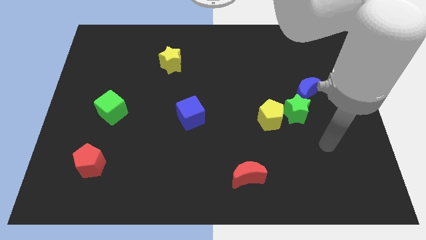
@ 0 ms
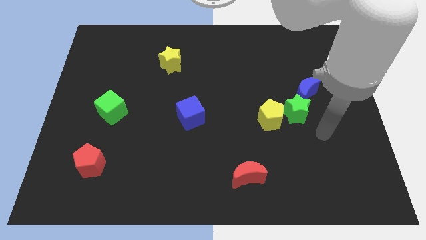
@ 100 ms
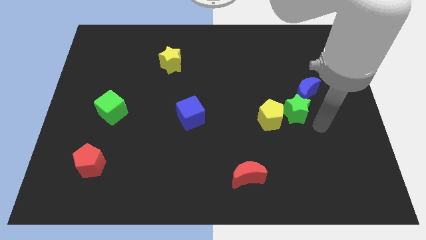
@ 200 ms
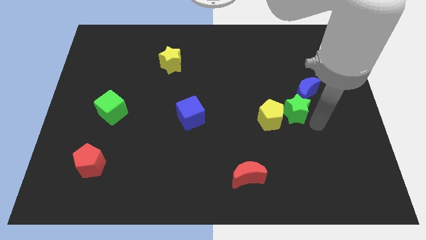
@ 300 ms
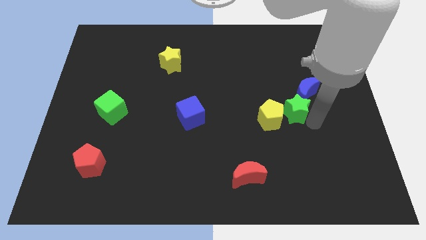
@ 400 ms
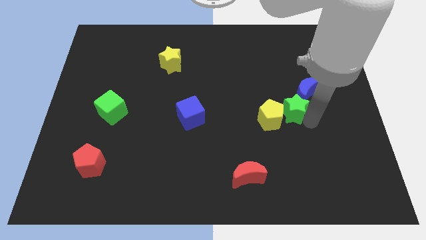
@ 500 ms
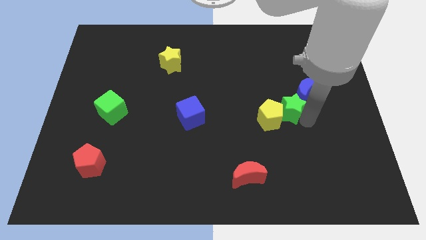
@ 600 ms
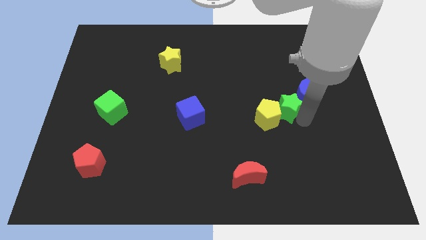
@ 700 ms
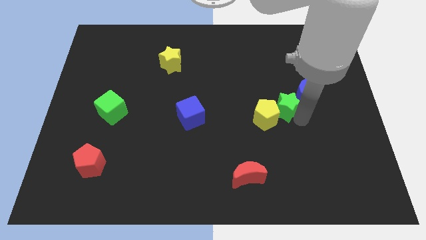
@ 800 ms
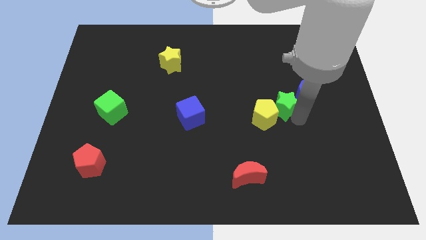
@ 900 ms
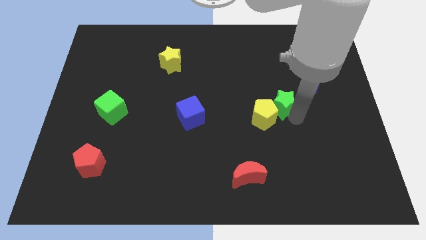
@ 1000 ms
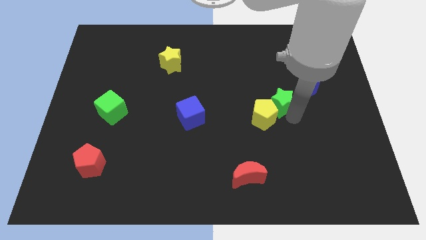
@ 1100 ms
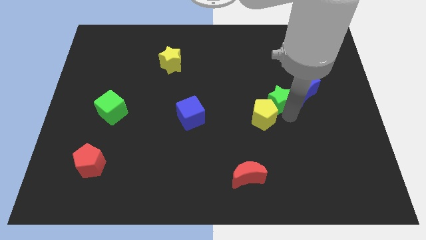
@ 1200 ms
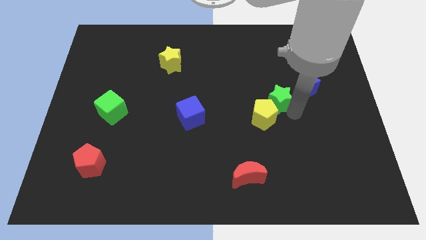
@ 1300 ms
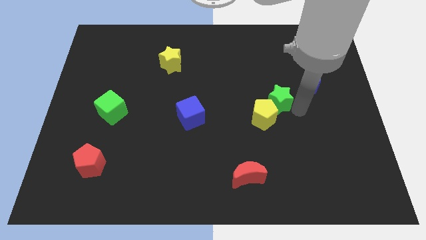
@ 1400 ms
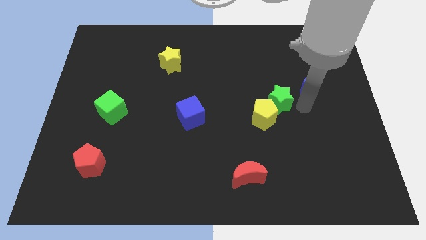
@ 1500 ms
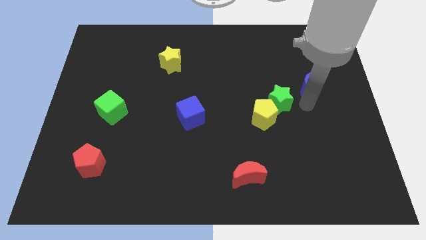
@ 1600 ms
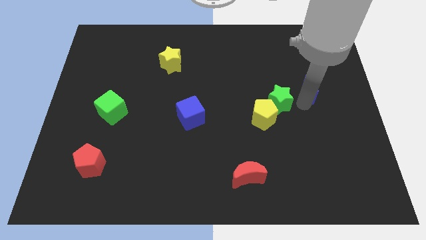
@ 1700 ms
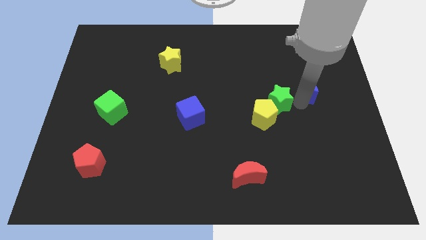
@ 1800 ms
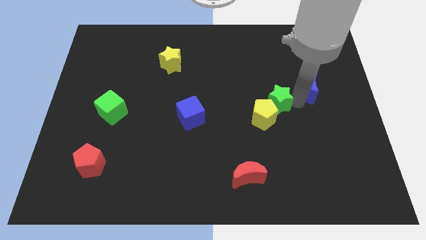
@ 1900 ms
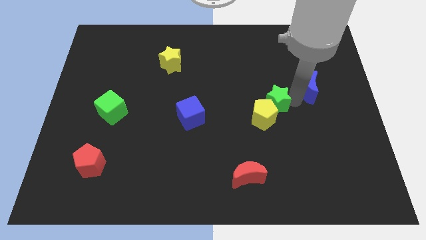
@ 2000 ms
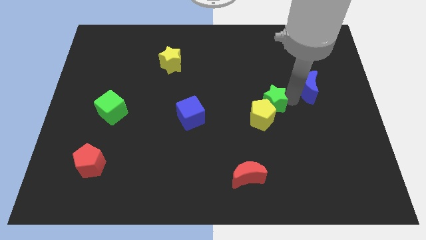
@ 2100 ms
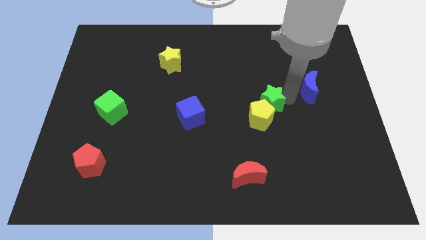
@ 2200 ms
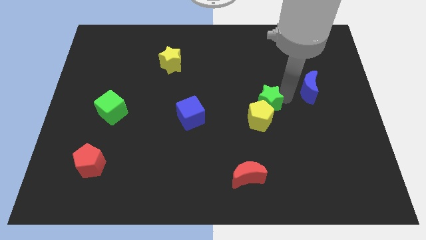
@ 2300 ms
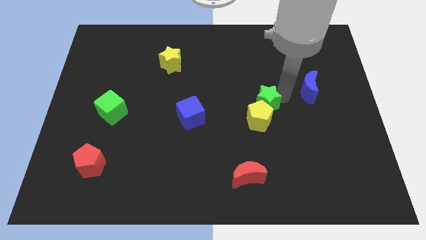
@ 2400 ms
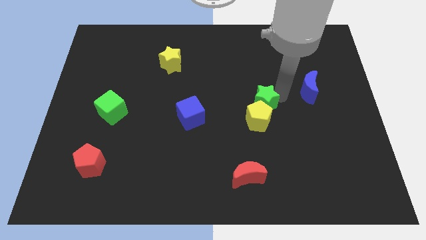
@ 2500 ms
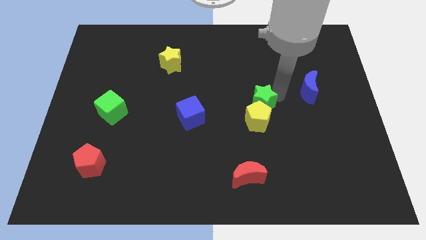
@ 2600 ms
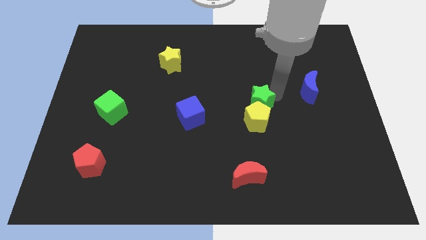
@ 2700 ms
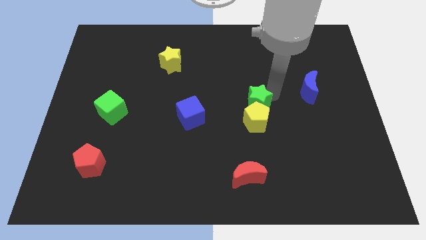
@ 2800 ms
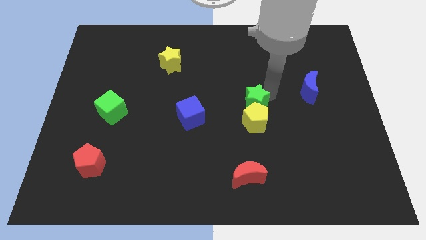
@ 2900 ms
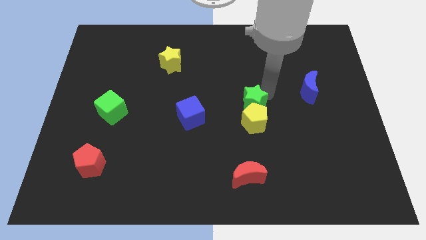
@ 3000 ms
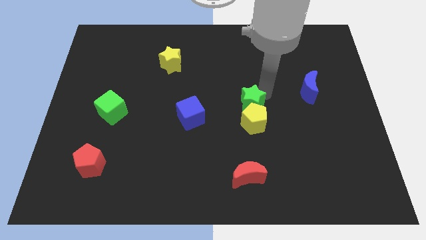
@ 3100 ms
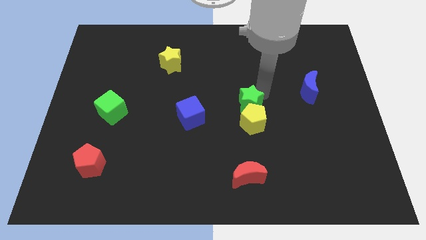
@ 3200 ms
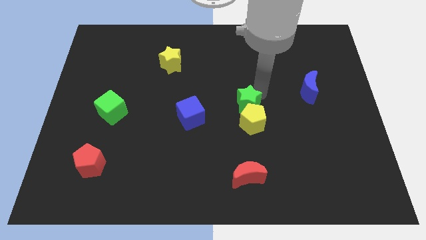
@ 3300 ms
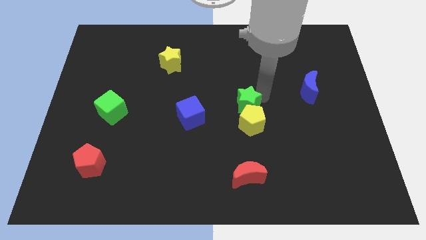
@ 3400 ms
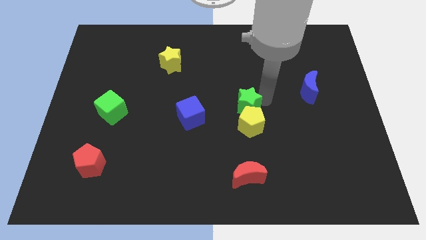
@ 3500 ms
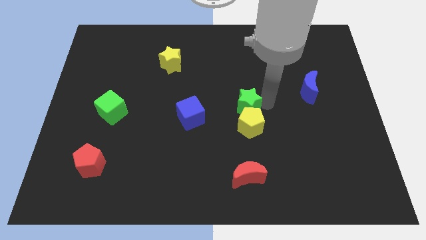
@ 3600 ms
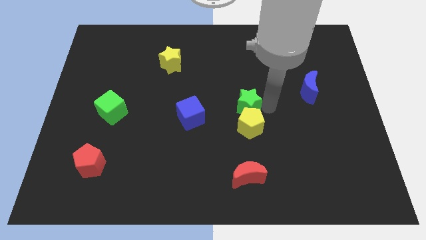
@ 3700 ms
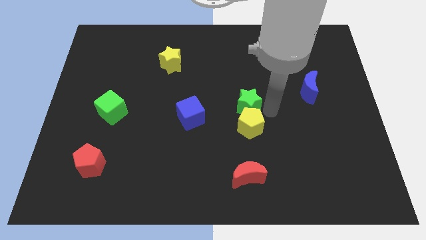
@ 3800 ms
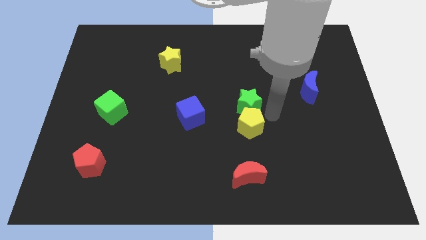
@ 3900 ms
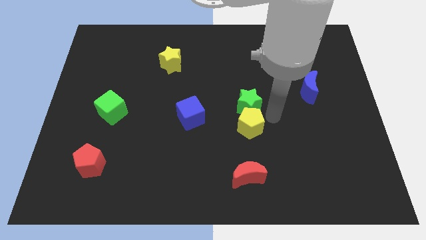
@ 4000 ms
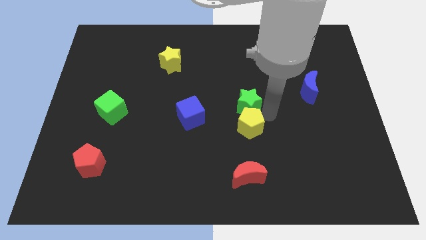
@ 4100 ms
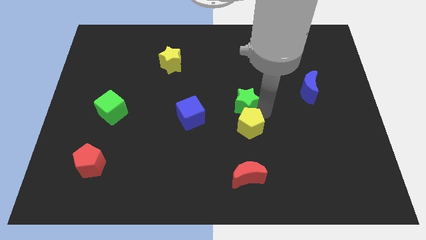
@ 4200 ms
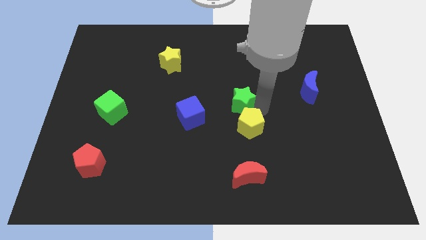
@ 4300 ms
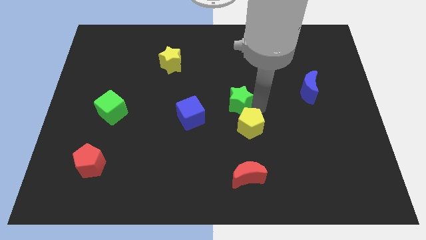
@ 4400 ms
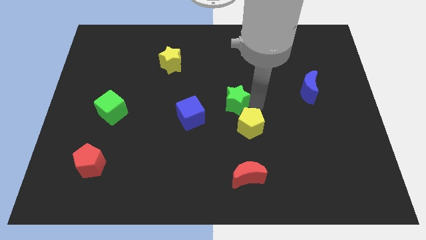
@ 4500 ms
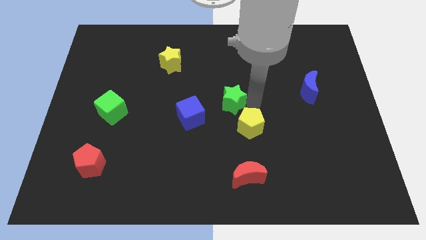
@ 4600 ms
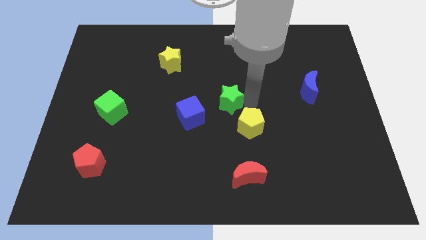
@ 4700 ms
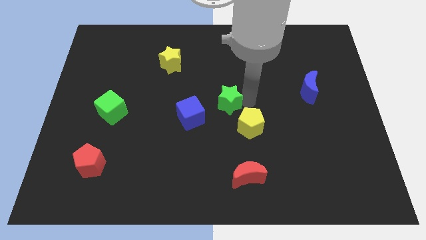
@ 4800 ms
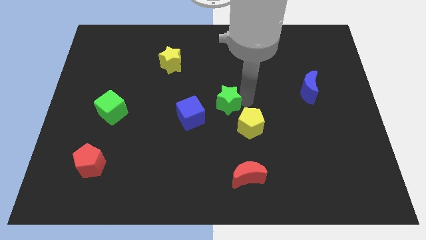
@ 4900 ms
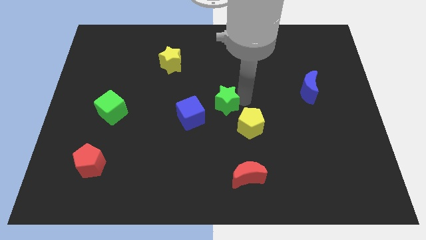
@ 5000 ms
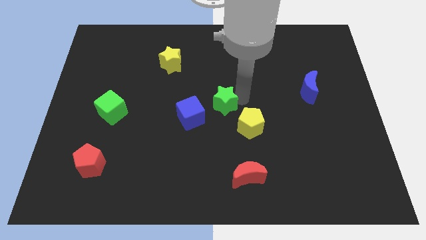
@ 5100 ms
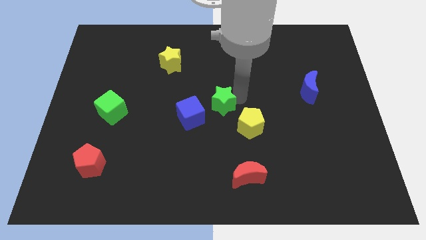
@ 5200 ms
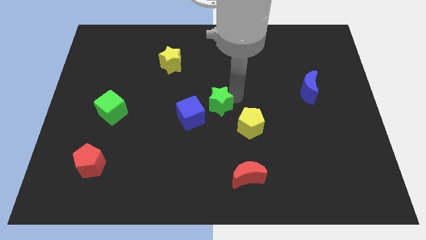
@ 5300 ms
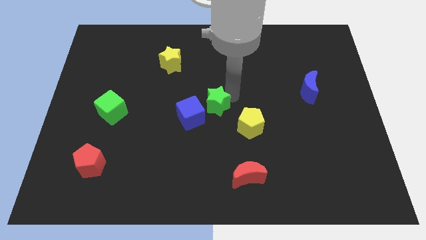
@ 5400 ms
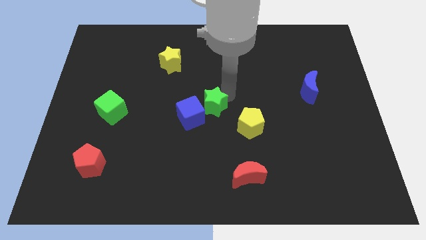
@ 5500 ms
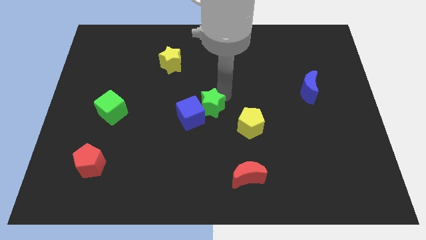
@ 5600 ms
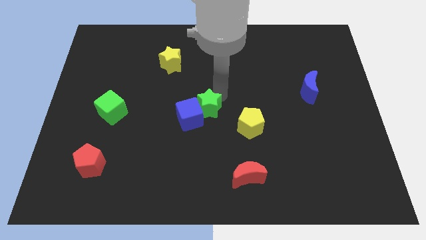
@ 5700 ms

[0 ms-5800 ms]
move the green star to the left

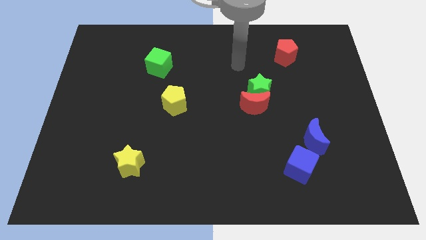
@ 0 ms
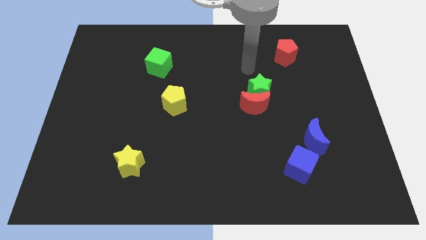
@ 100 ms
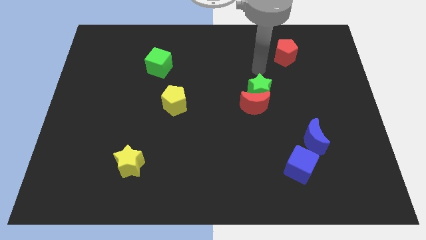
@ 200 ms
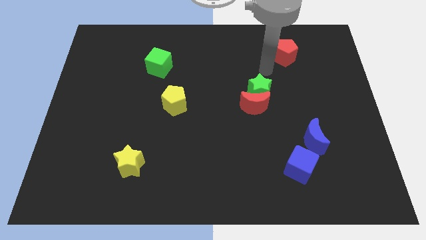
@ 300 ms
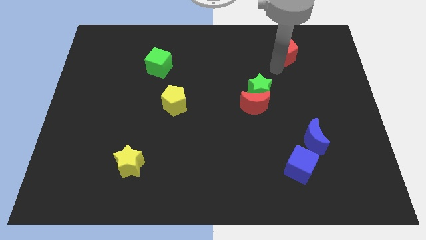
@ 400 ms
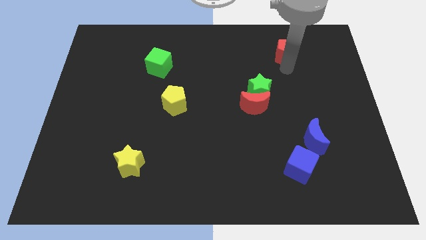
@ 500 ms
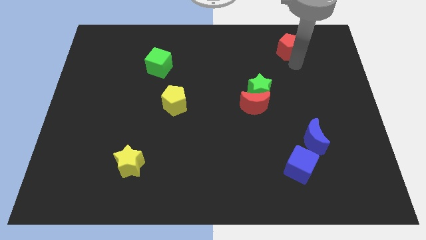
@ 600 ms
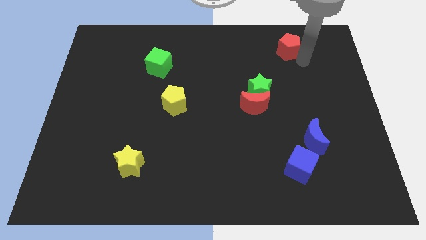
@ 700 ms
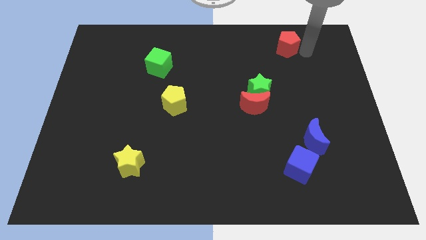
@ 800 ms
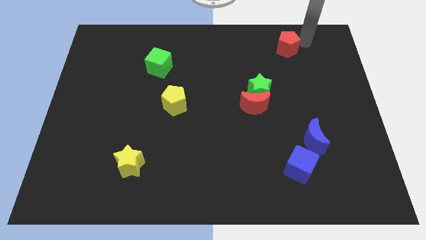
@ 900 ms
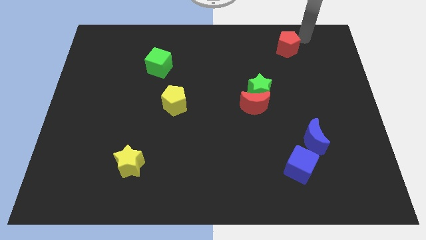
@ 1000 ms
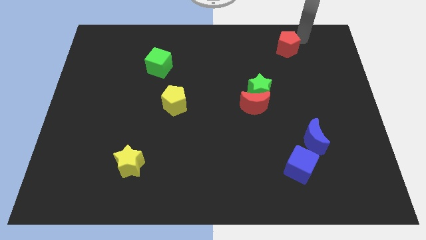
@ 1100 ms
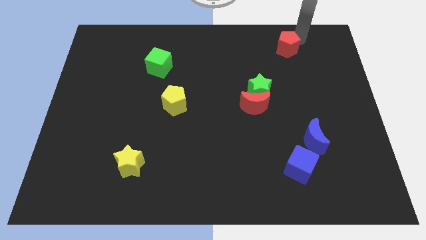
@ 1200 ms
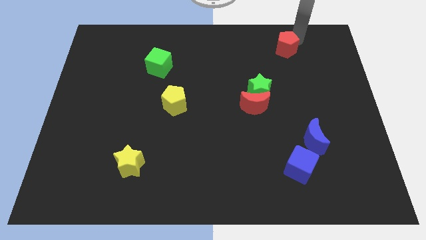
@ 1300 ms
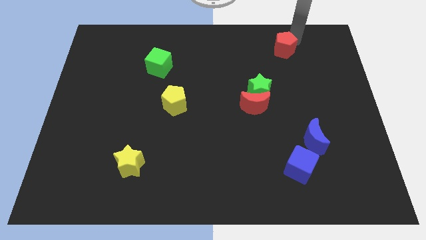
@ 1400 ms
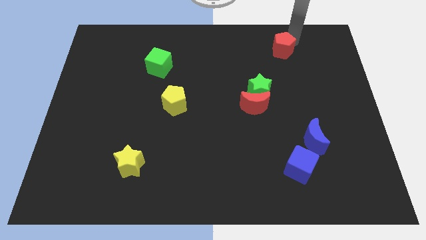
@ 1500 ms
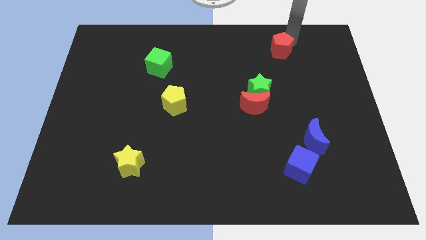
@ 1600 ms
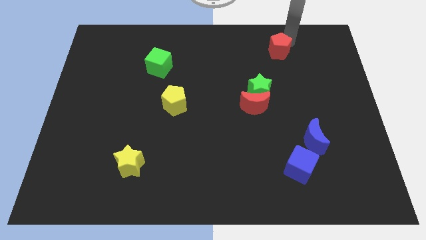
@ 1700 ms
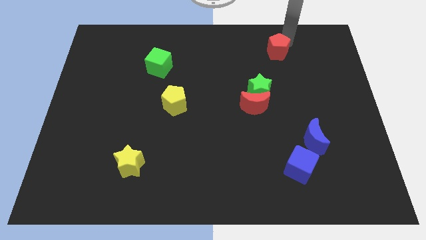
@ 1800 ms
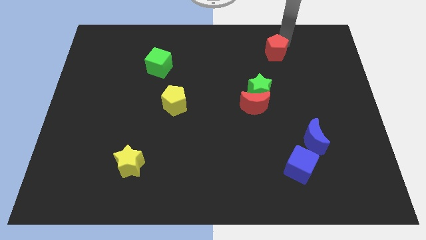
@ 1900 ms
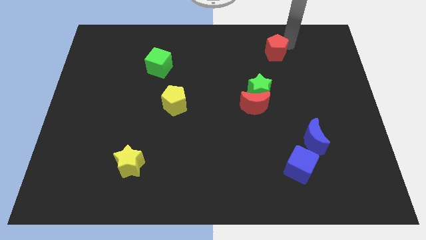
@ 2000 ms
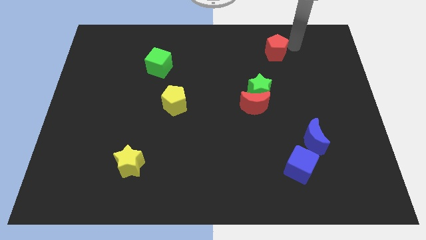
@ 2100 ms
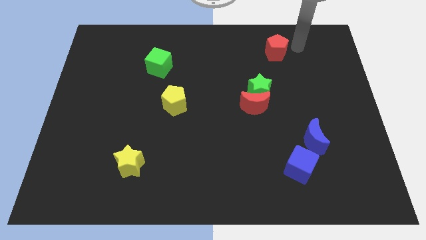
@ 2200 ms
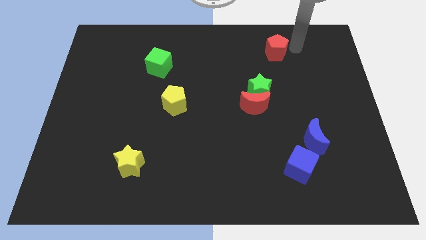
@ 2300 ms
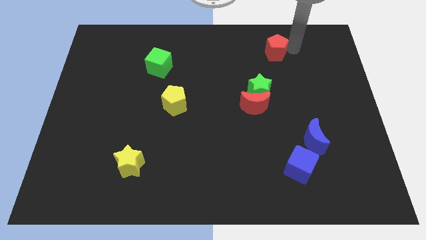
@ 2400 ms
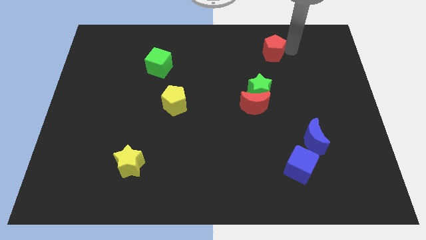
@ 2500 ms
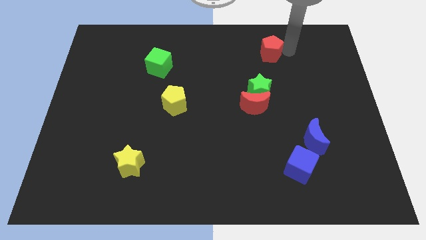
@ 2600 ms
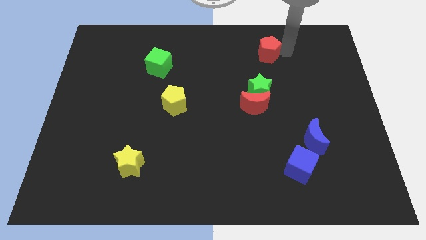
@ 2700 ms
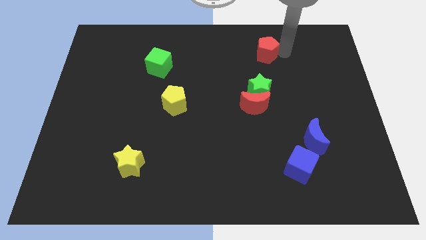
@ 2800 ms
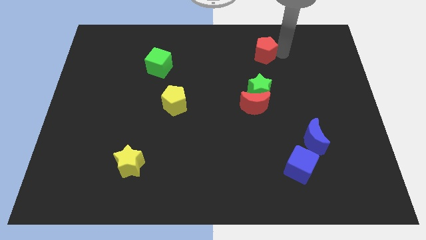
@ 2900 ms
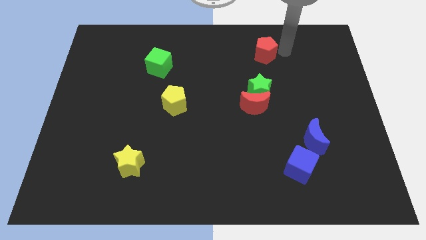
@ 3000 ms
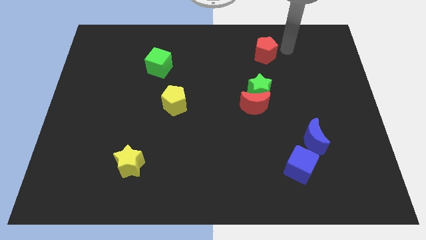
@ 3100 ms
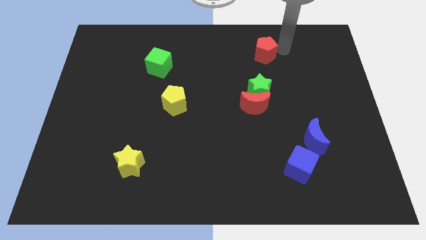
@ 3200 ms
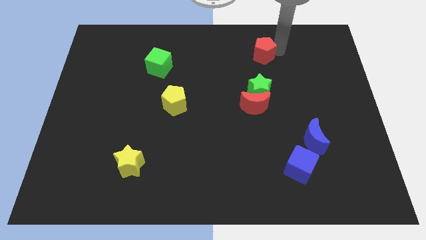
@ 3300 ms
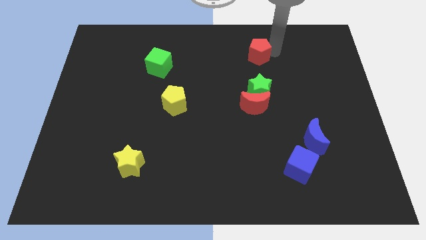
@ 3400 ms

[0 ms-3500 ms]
push the red pentagon a little bit left
